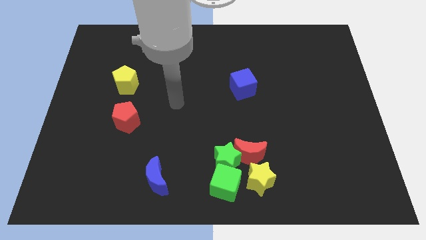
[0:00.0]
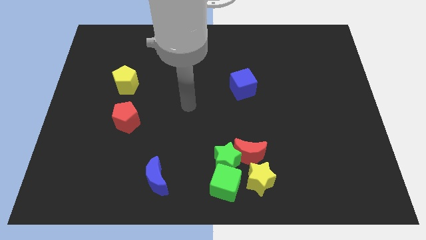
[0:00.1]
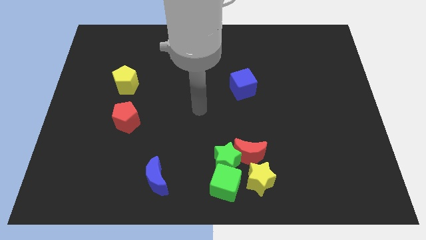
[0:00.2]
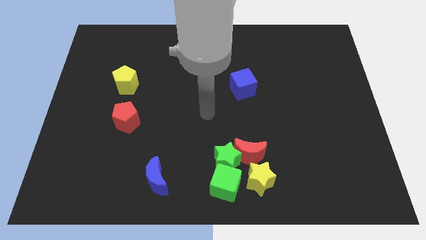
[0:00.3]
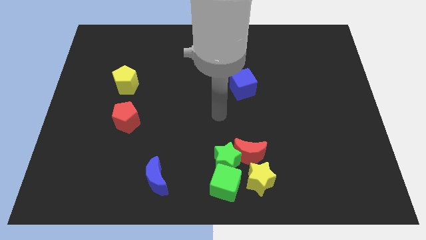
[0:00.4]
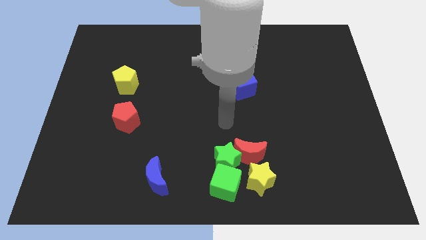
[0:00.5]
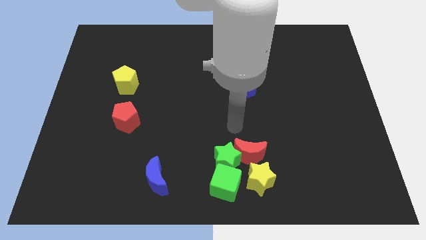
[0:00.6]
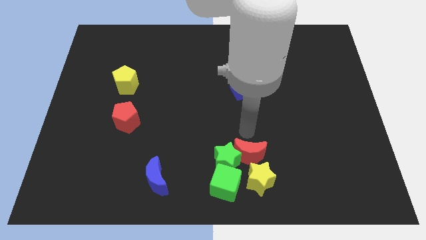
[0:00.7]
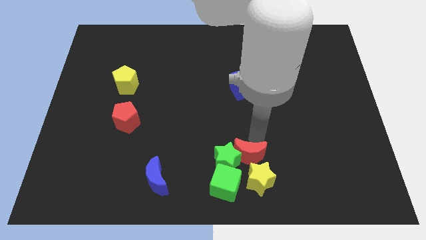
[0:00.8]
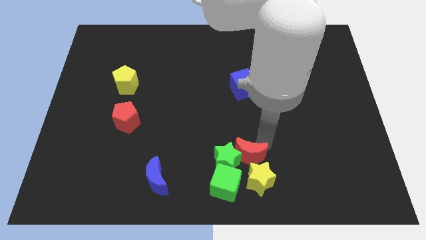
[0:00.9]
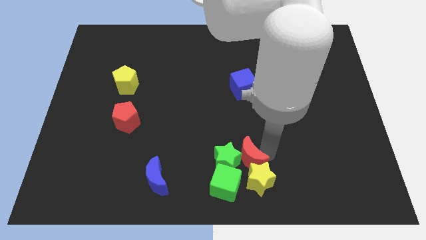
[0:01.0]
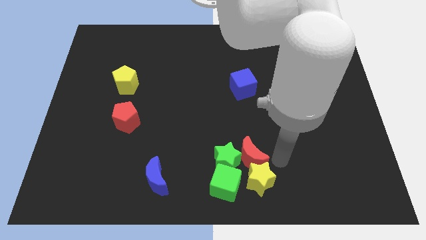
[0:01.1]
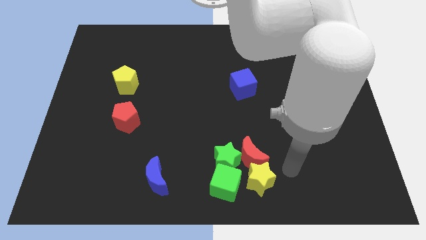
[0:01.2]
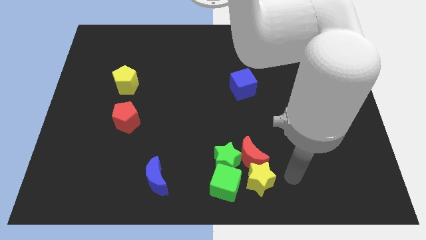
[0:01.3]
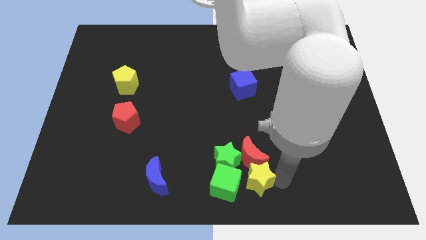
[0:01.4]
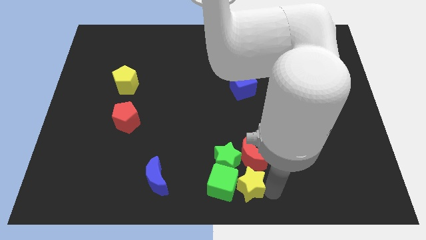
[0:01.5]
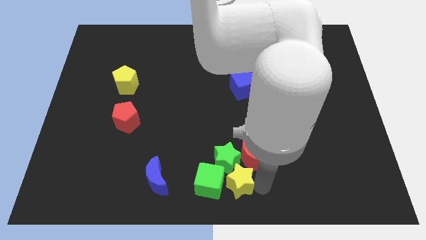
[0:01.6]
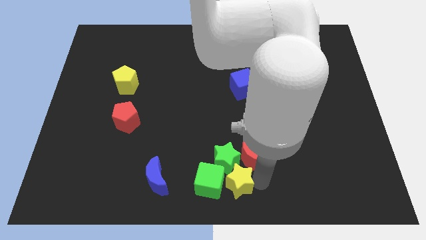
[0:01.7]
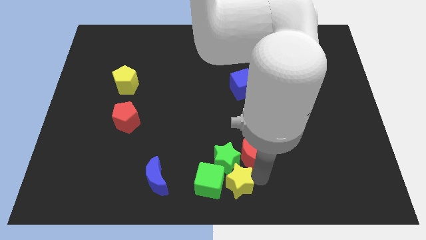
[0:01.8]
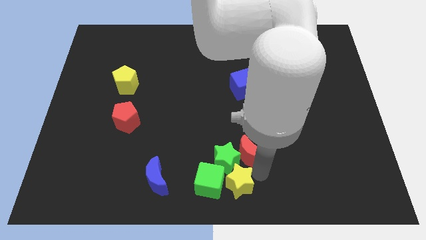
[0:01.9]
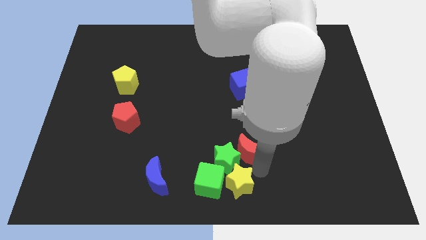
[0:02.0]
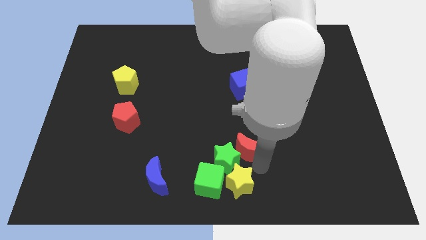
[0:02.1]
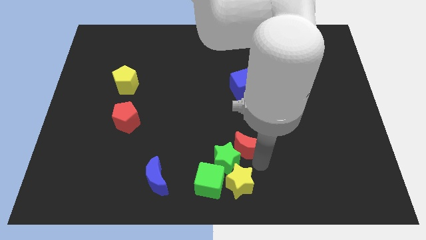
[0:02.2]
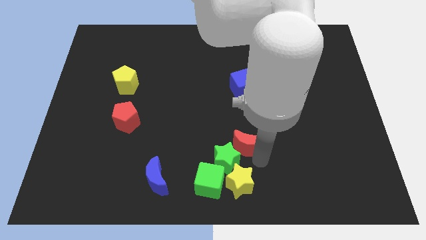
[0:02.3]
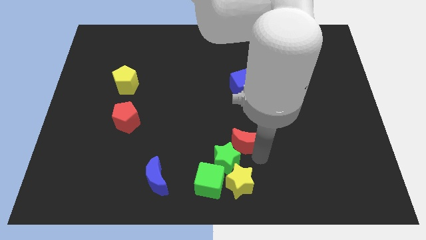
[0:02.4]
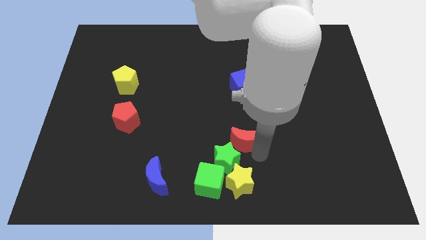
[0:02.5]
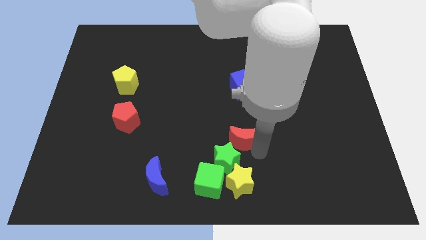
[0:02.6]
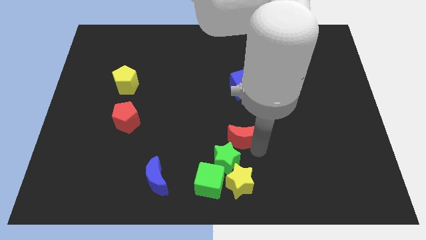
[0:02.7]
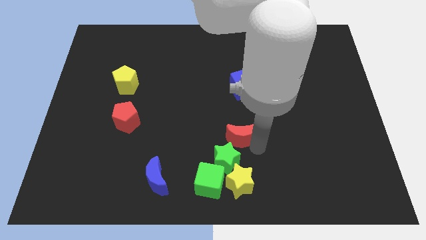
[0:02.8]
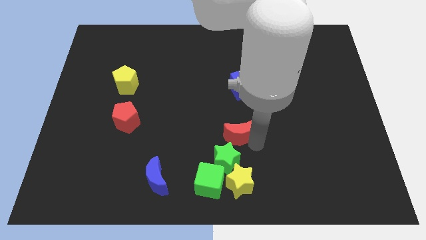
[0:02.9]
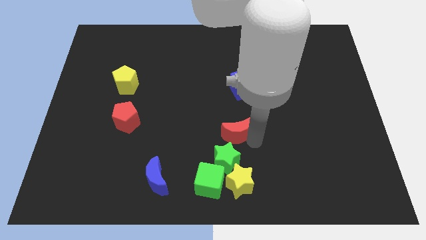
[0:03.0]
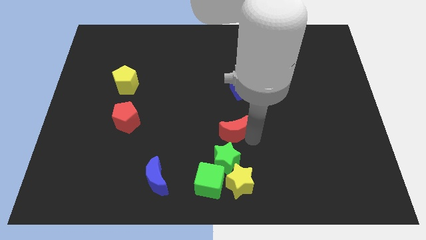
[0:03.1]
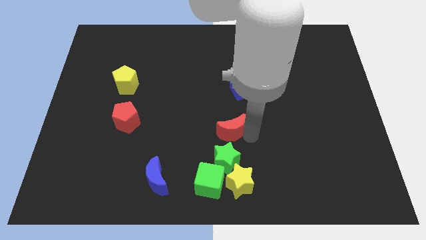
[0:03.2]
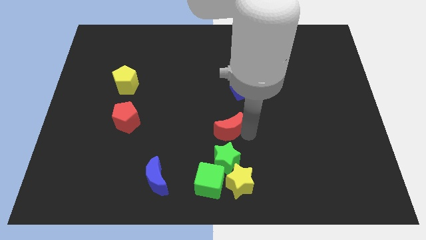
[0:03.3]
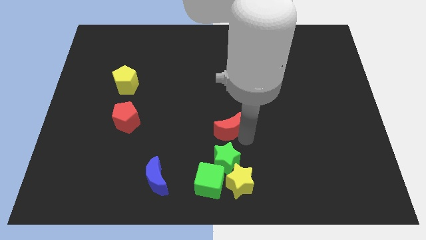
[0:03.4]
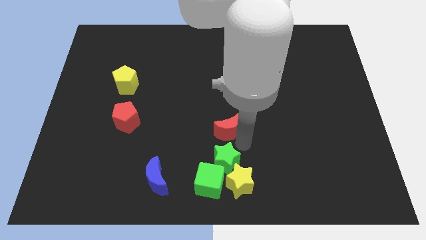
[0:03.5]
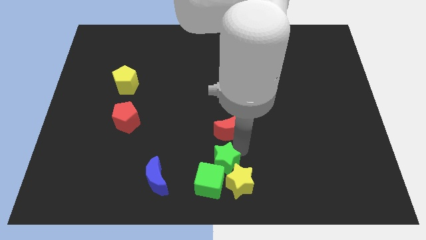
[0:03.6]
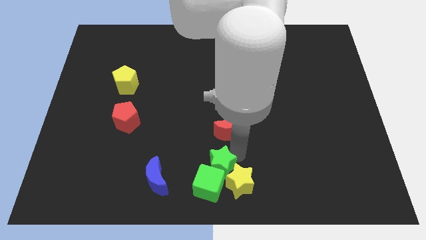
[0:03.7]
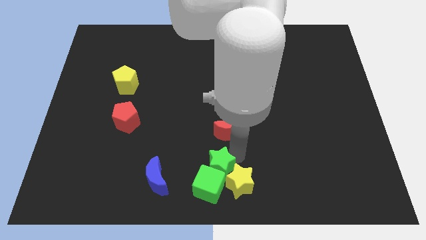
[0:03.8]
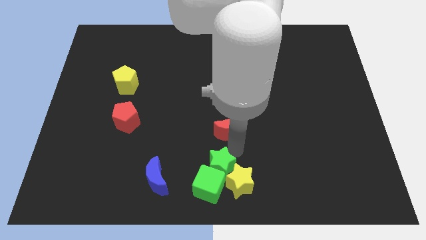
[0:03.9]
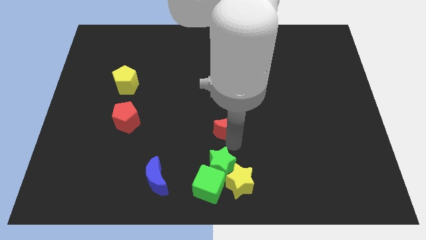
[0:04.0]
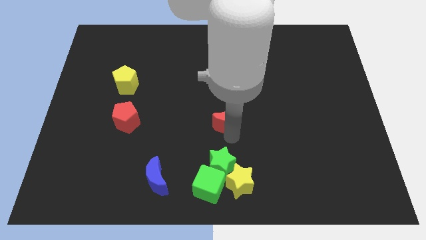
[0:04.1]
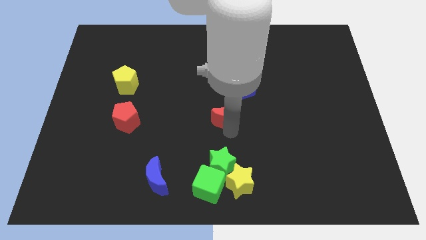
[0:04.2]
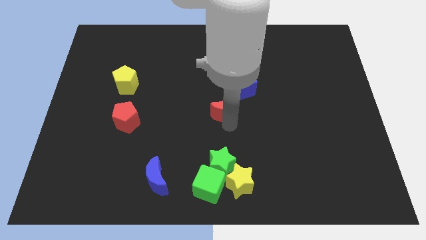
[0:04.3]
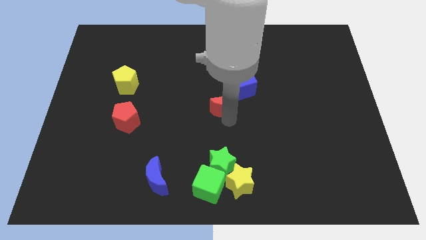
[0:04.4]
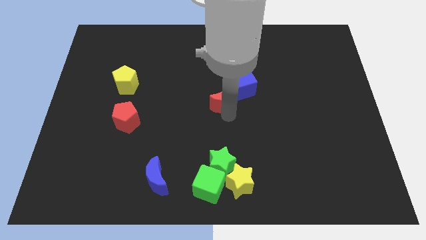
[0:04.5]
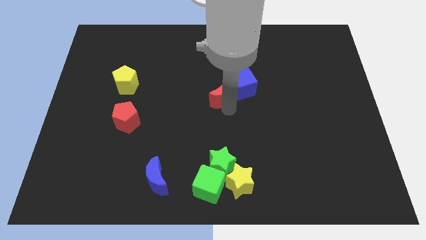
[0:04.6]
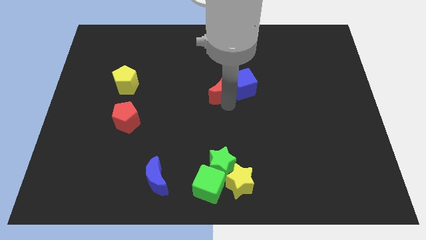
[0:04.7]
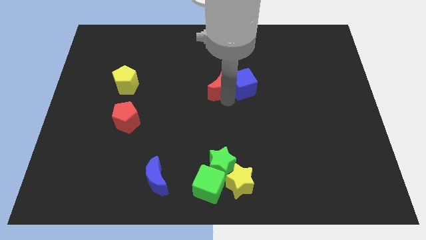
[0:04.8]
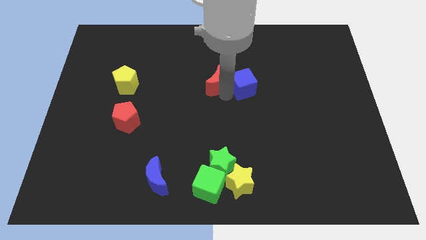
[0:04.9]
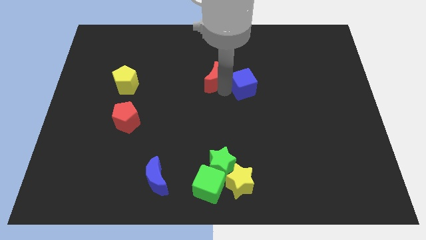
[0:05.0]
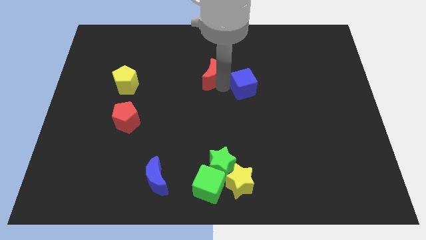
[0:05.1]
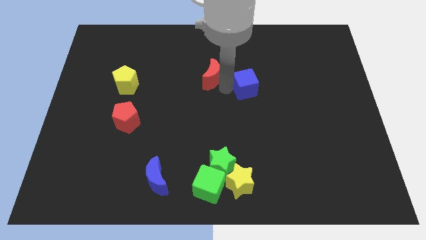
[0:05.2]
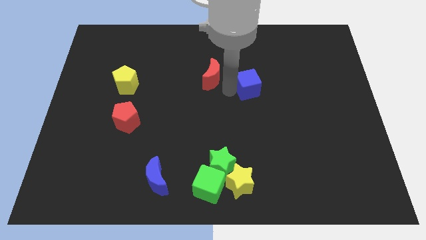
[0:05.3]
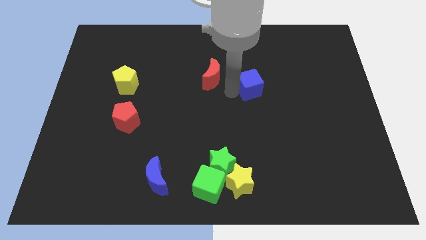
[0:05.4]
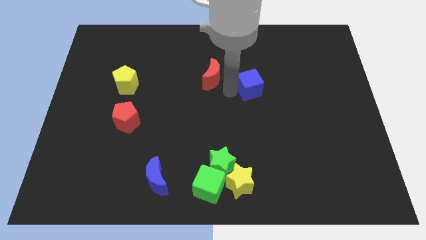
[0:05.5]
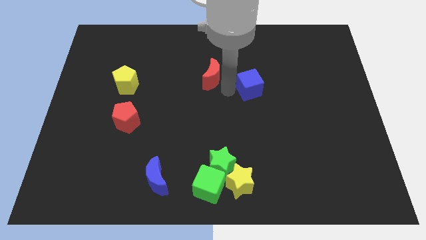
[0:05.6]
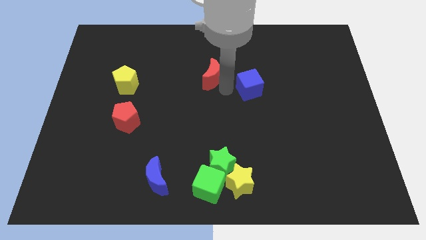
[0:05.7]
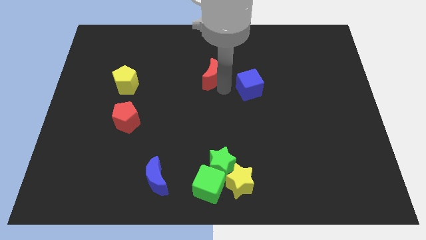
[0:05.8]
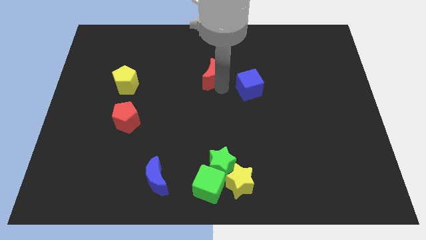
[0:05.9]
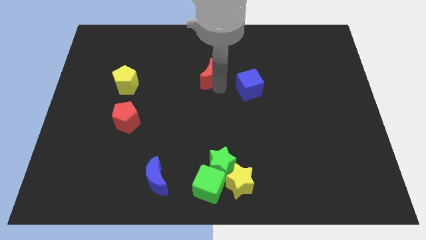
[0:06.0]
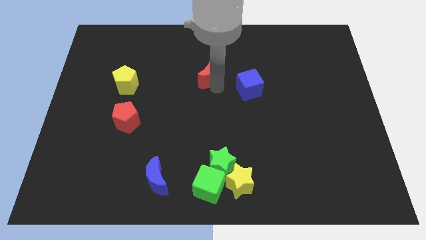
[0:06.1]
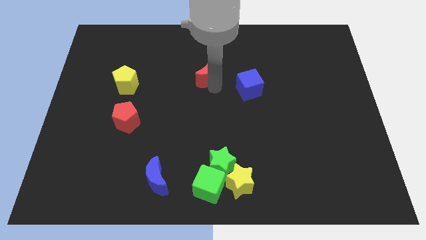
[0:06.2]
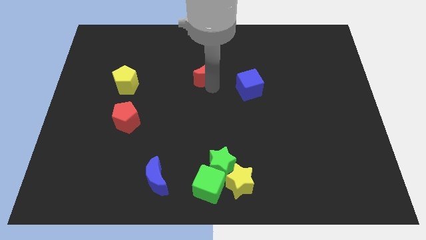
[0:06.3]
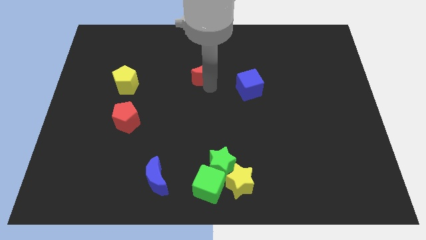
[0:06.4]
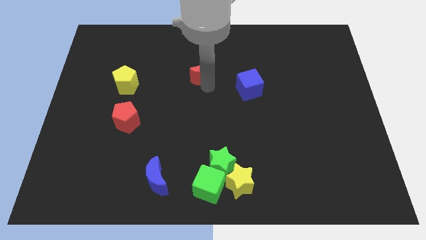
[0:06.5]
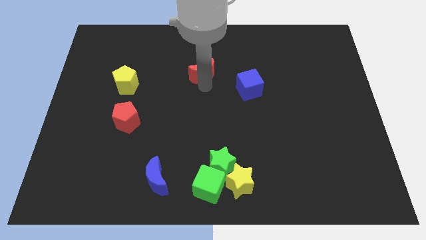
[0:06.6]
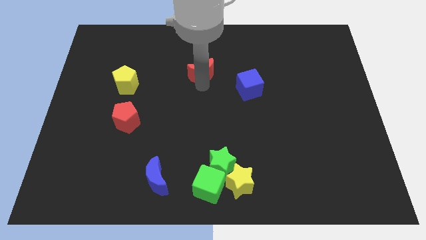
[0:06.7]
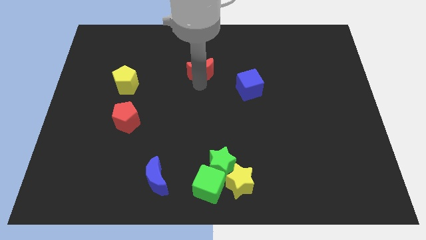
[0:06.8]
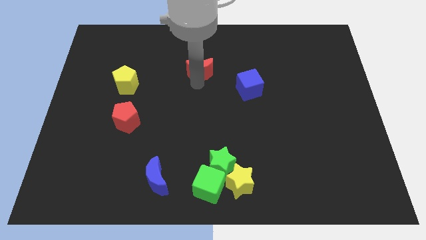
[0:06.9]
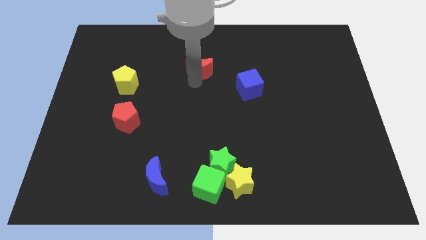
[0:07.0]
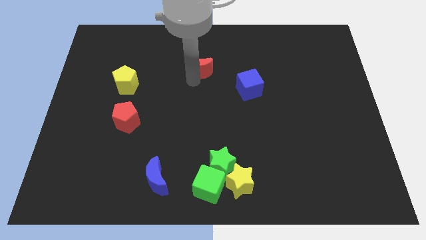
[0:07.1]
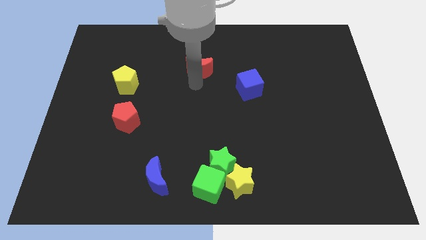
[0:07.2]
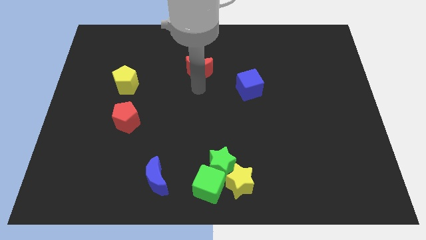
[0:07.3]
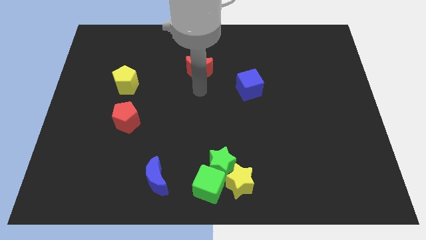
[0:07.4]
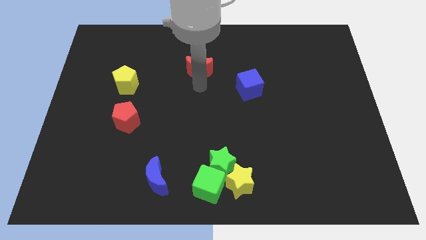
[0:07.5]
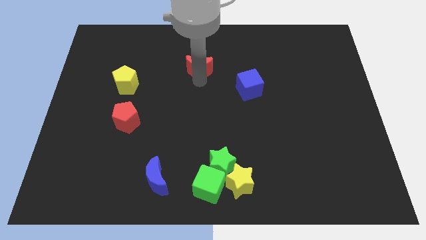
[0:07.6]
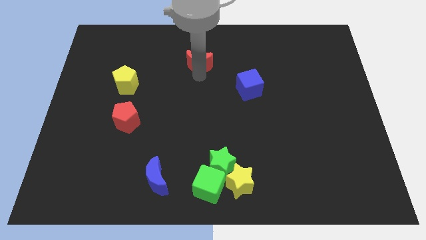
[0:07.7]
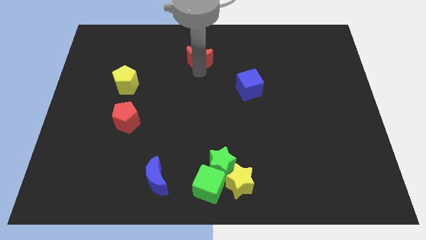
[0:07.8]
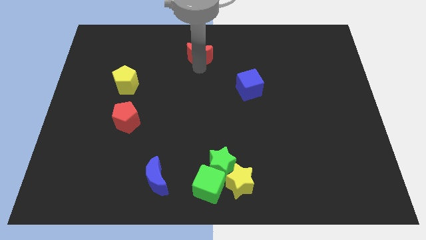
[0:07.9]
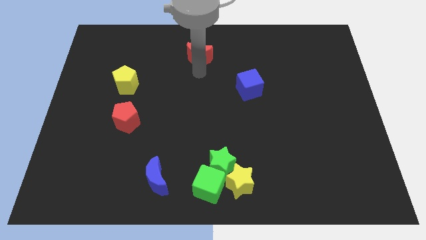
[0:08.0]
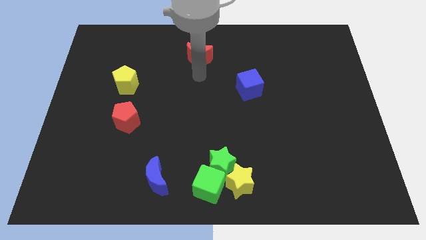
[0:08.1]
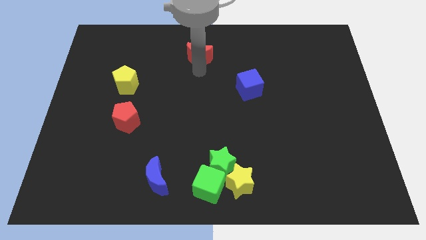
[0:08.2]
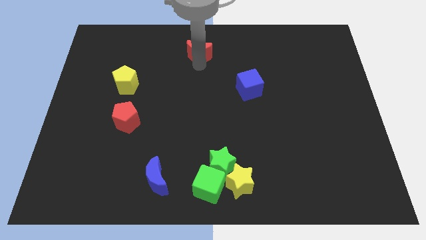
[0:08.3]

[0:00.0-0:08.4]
slide the red moon to the top side
